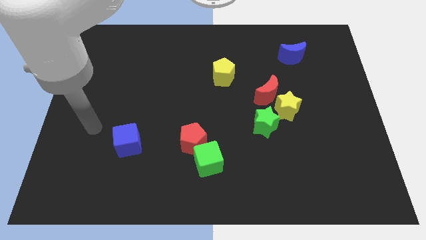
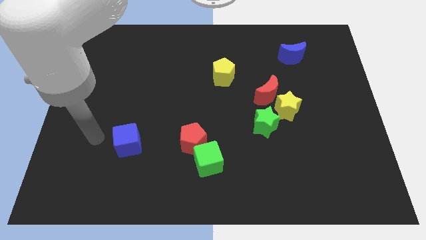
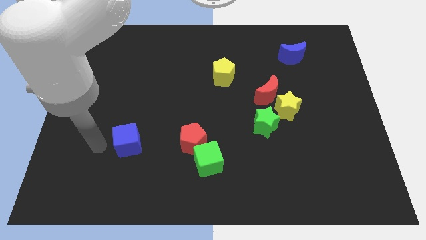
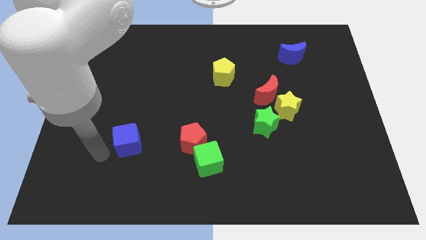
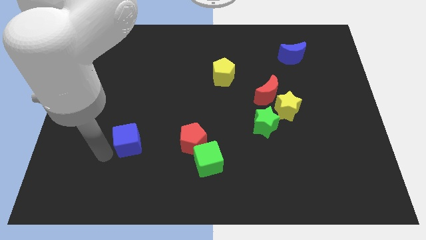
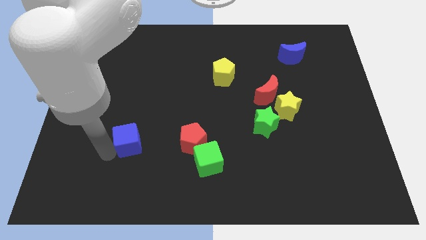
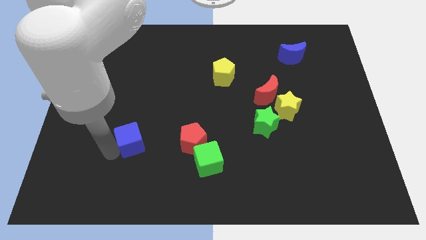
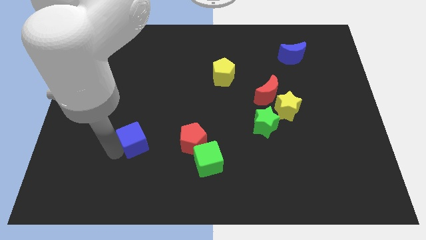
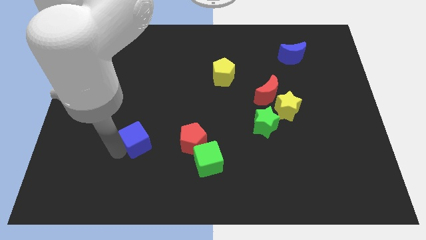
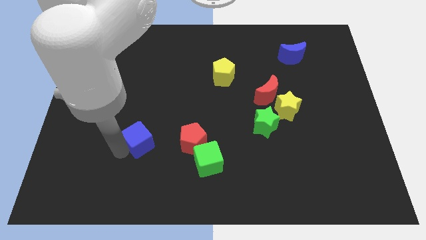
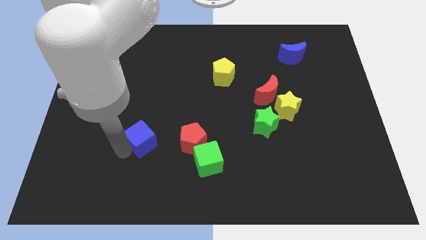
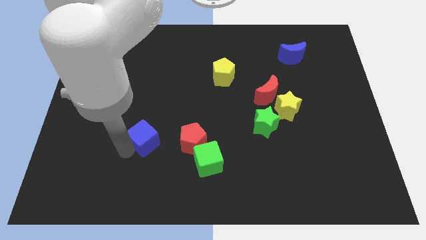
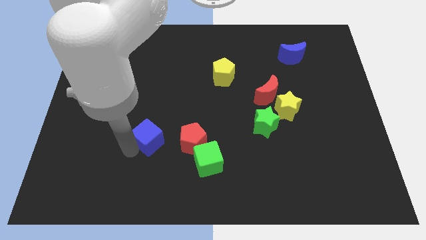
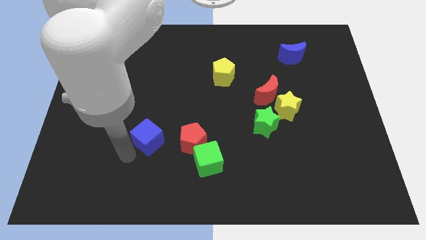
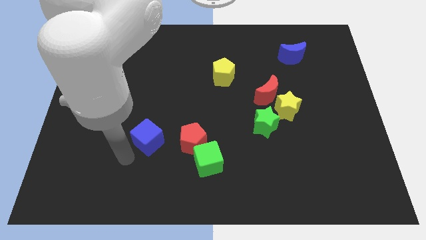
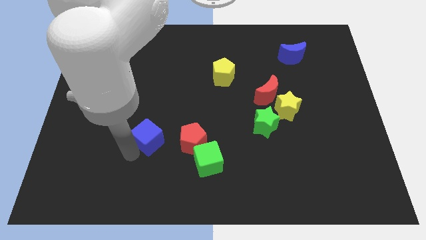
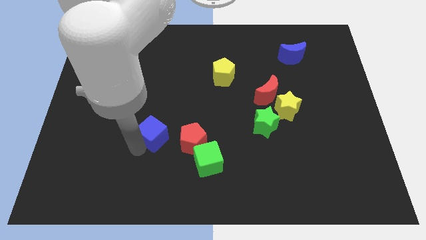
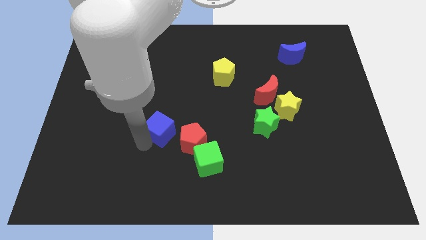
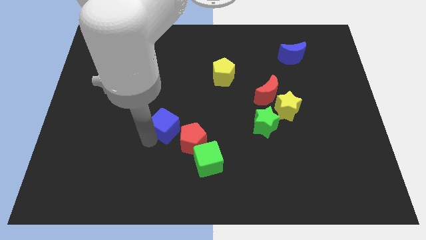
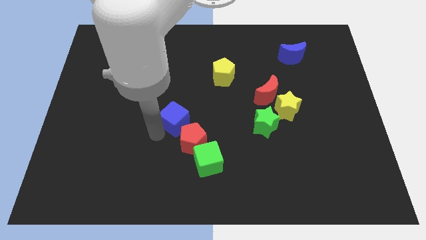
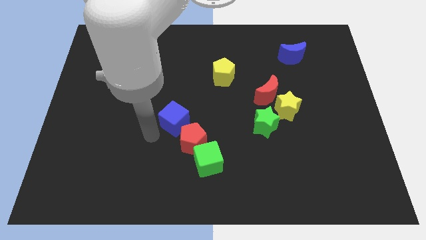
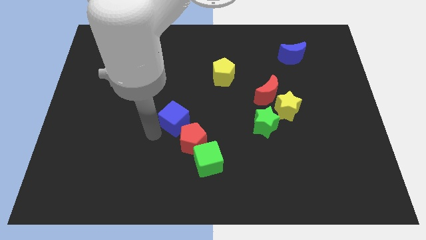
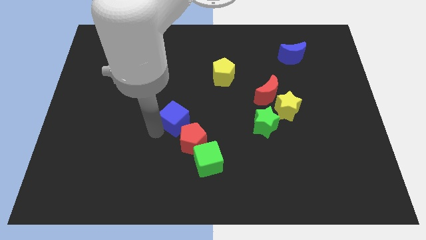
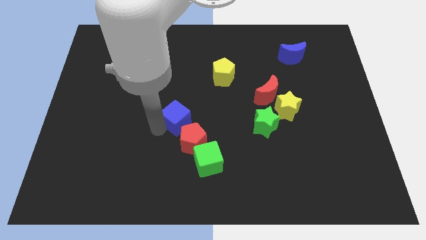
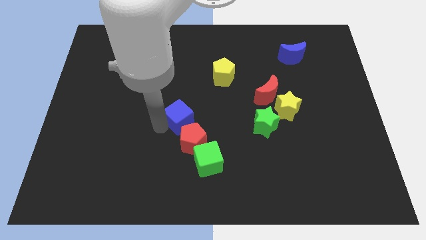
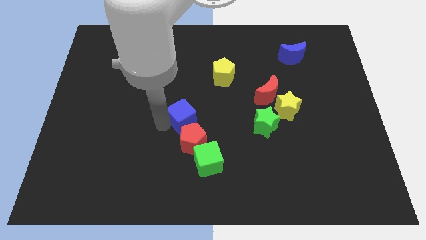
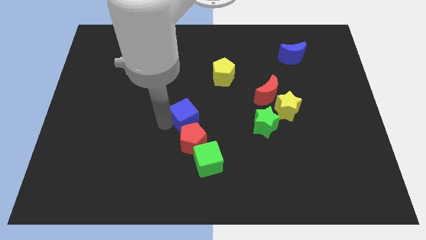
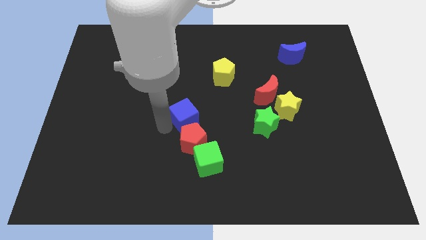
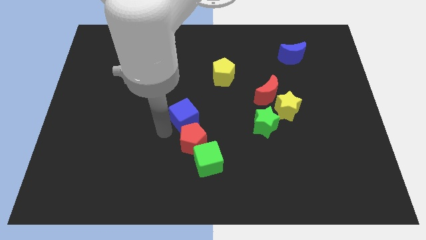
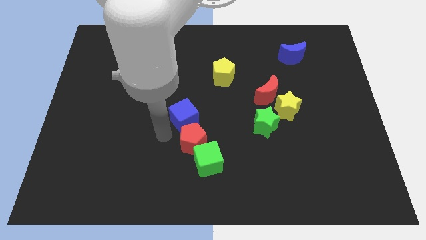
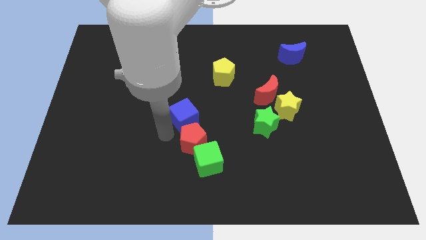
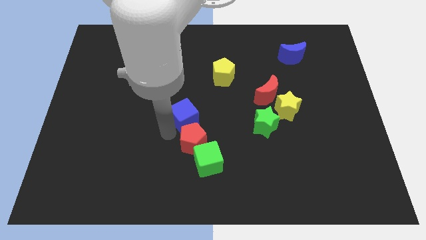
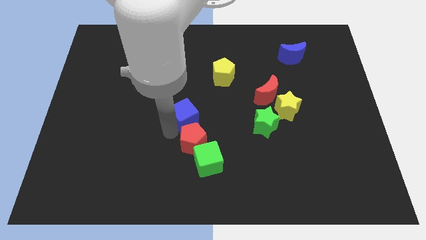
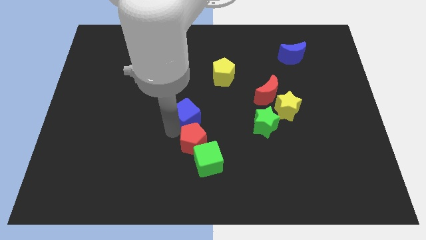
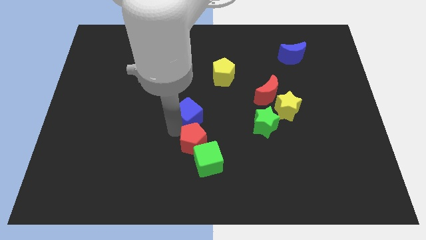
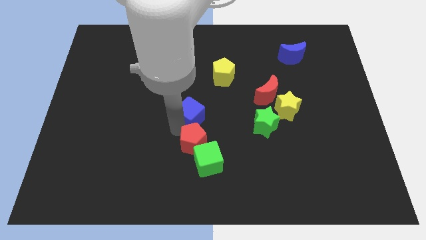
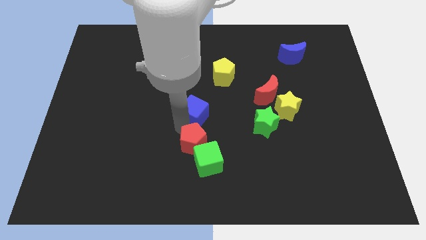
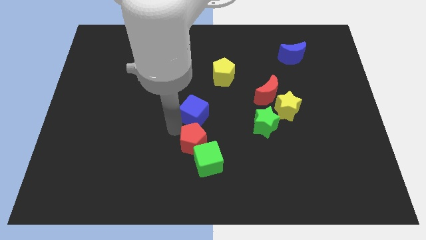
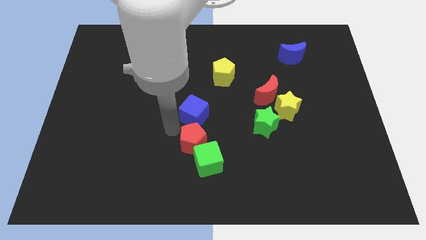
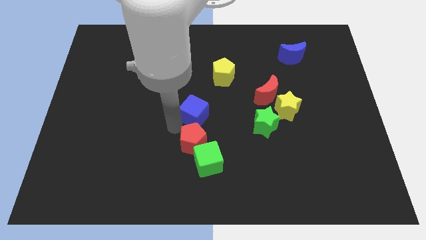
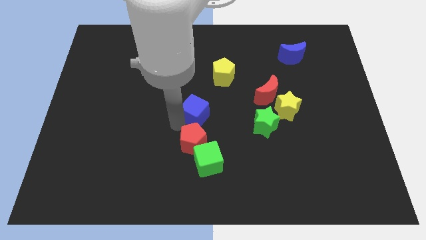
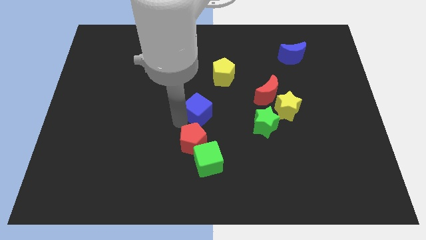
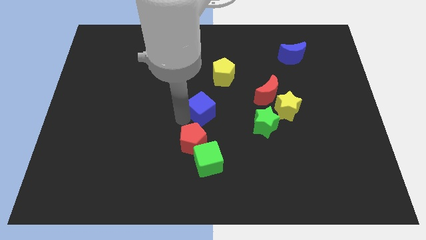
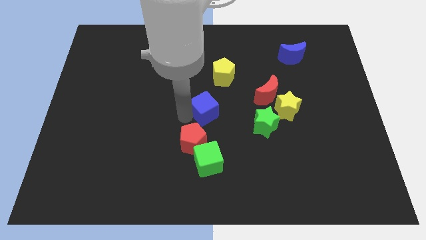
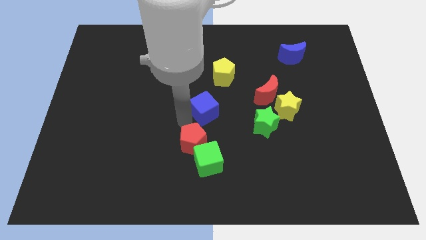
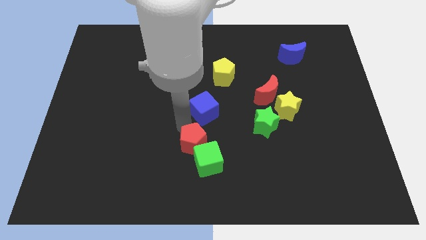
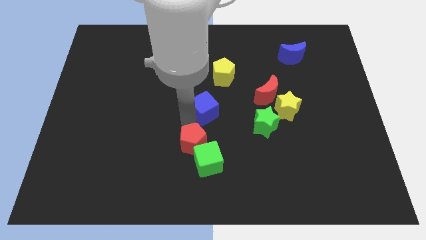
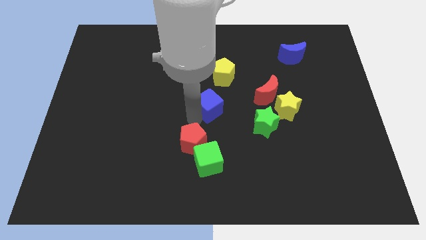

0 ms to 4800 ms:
put the blue cube to the left of the red moon

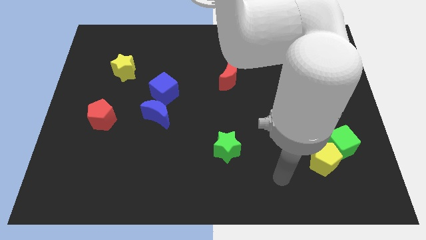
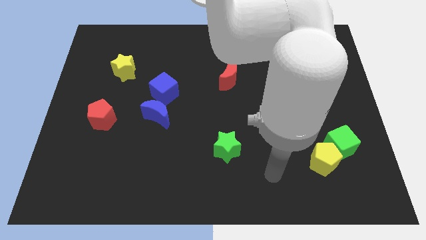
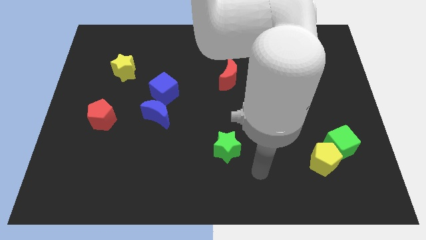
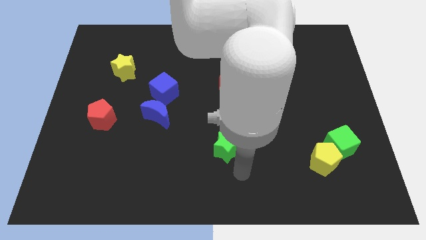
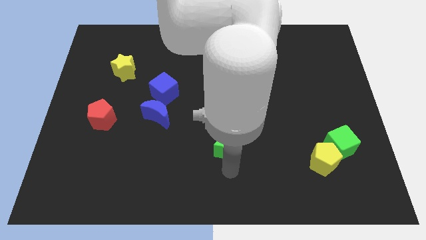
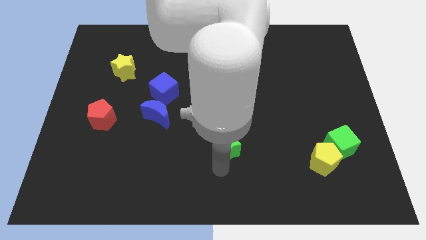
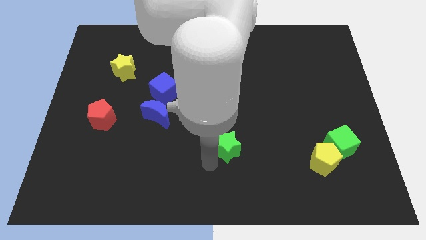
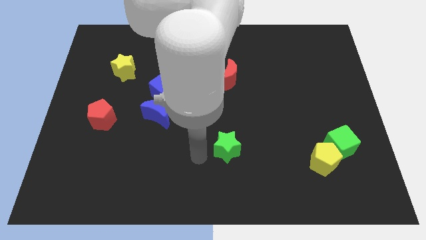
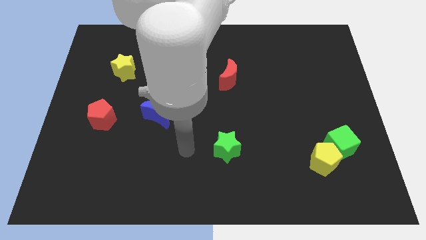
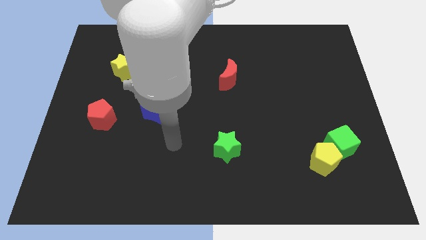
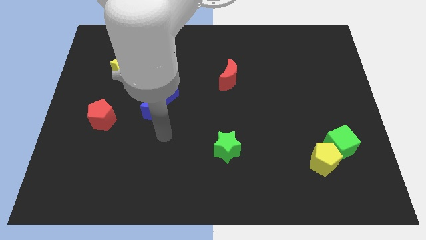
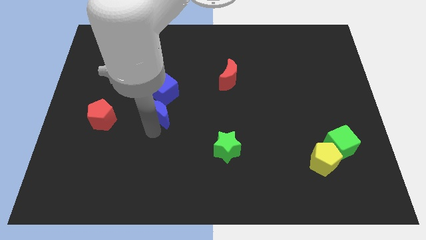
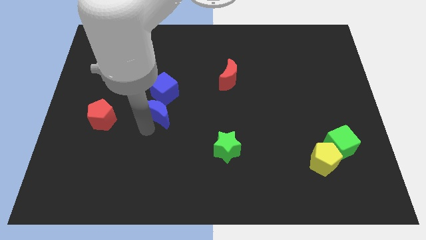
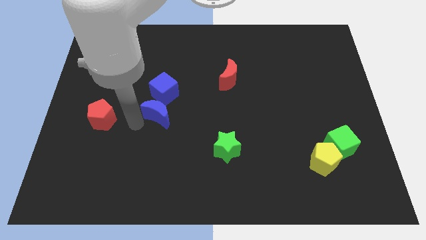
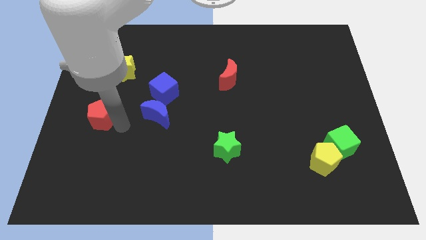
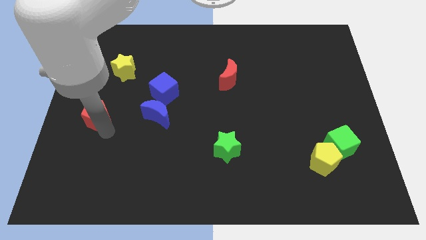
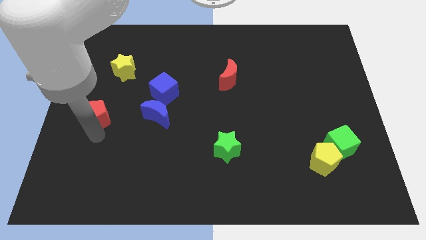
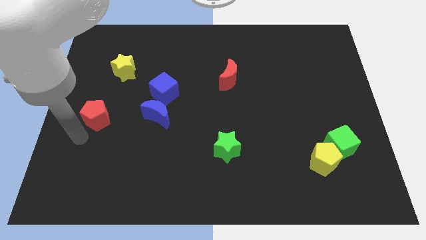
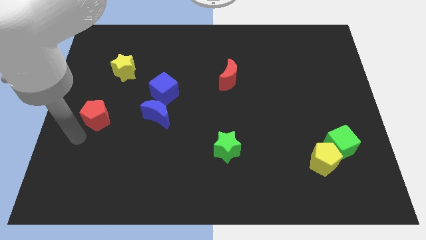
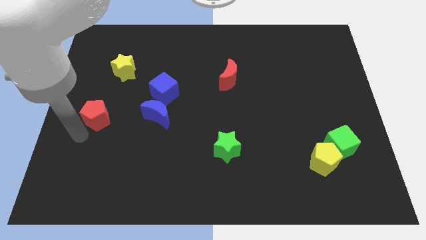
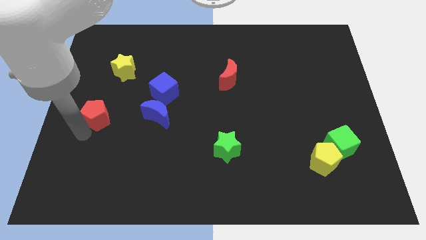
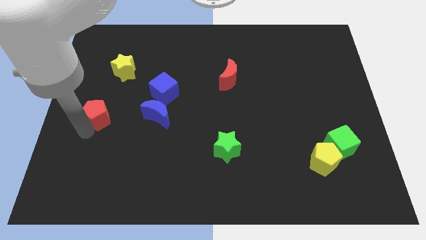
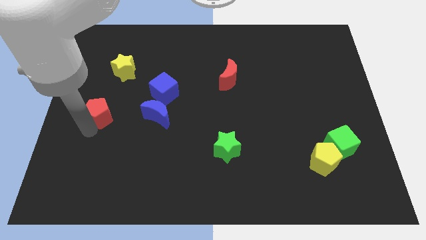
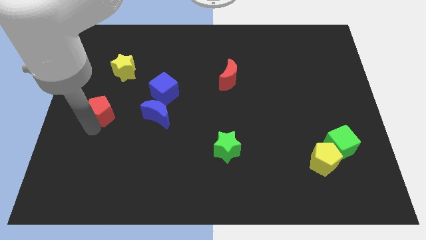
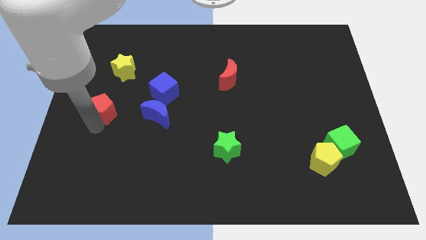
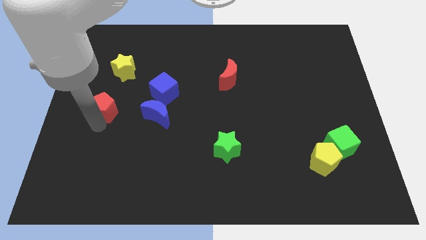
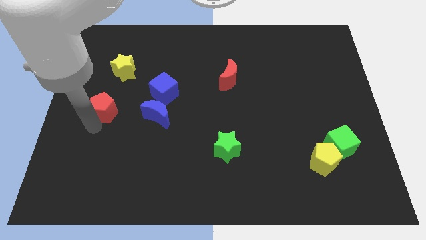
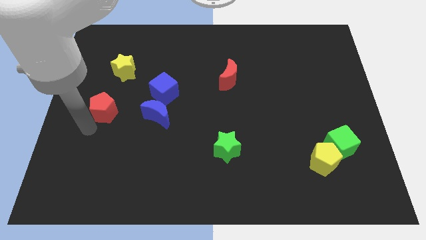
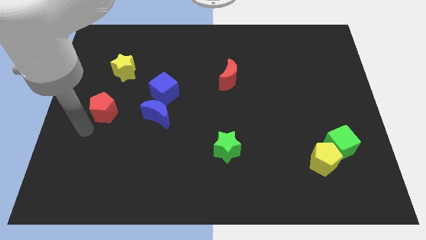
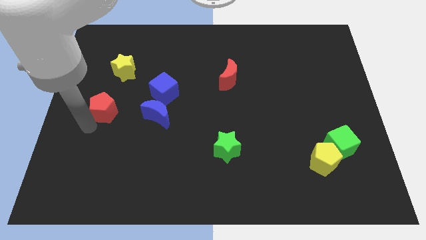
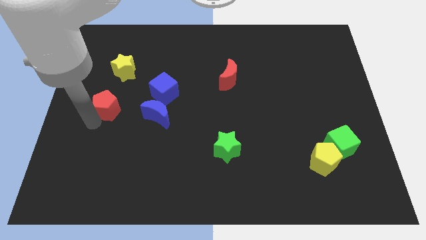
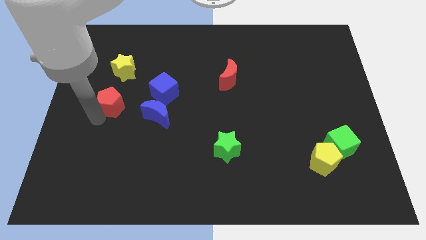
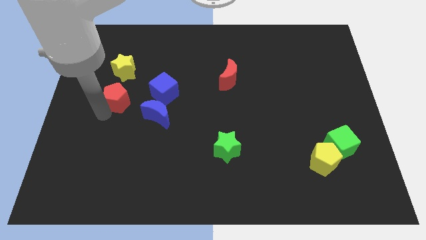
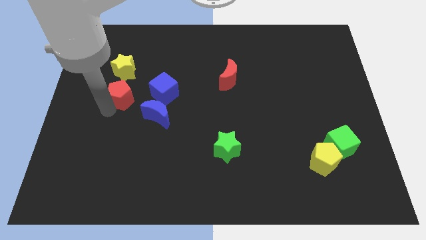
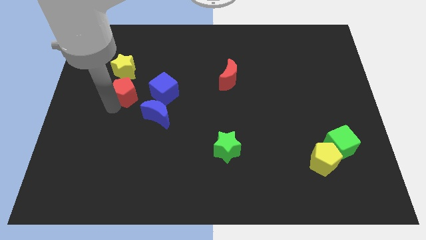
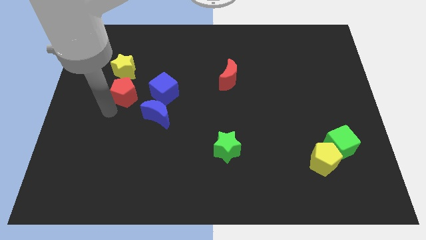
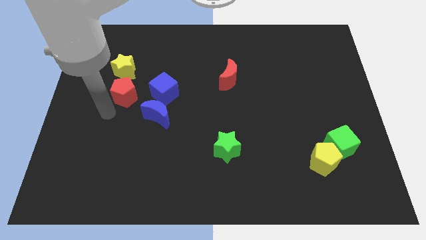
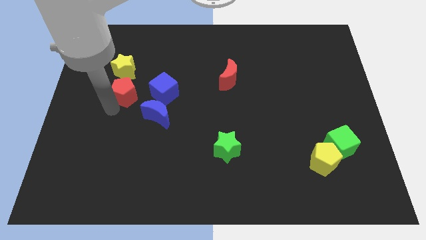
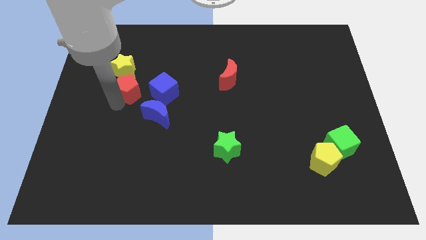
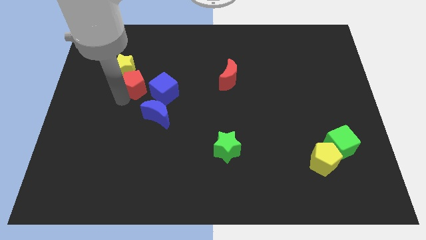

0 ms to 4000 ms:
put the red pentagon to the top left of the blue cube
